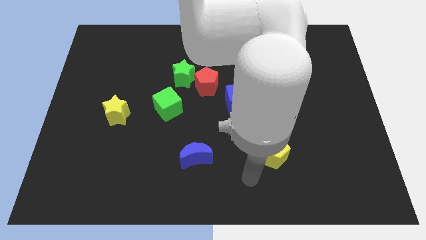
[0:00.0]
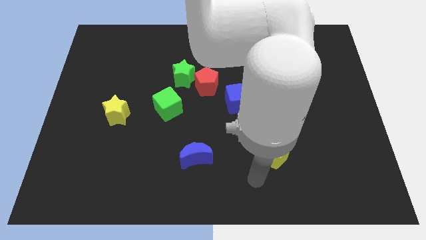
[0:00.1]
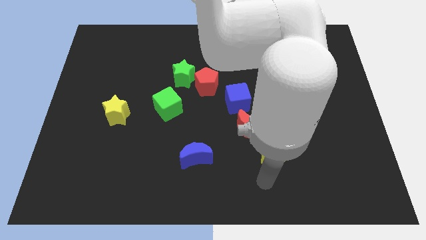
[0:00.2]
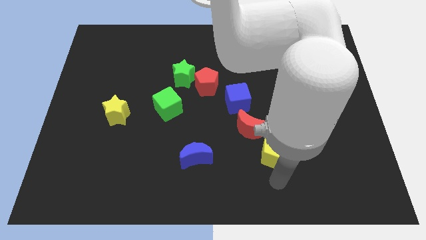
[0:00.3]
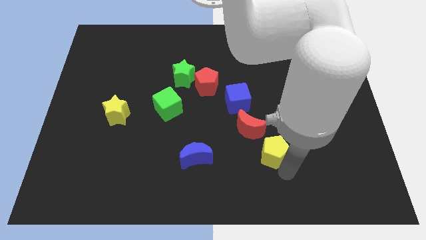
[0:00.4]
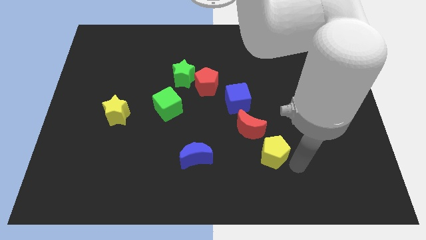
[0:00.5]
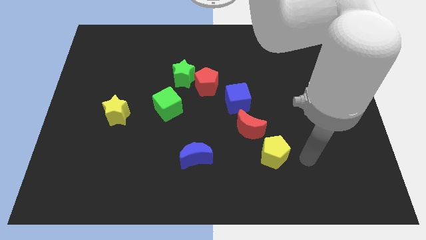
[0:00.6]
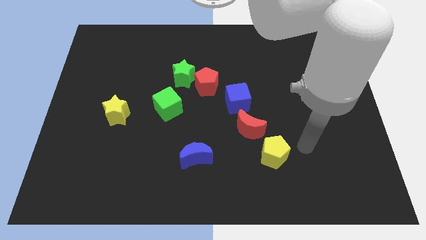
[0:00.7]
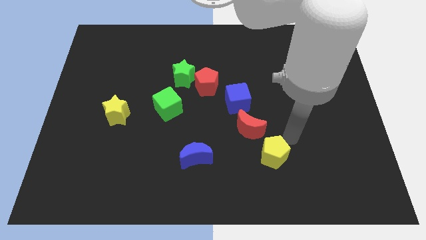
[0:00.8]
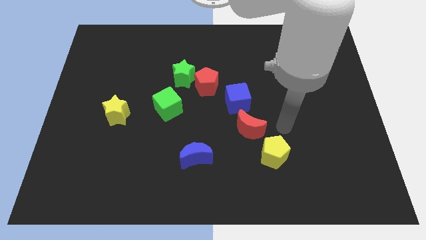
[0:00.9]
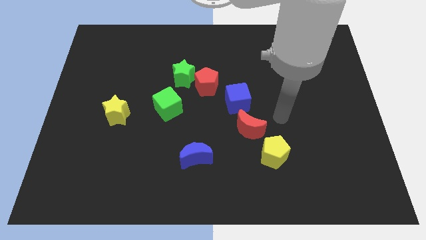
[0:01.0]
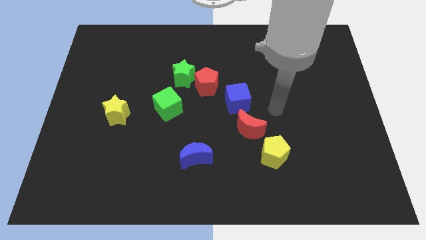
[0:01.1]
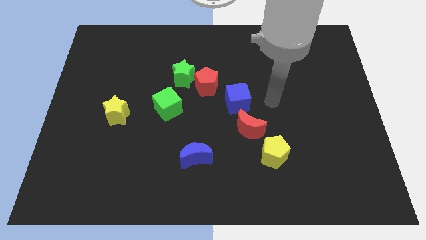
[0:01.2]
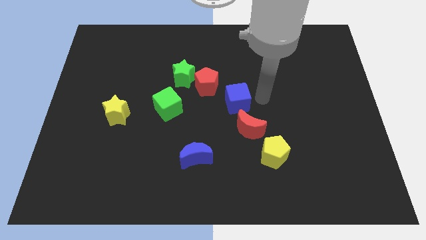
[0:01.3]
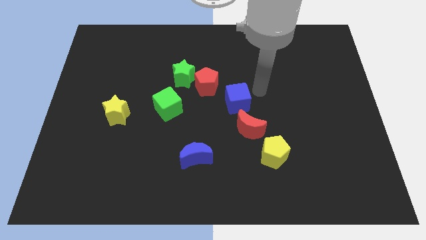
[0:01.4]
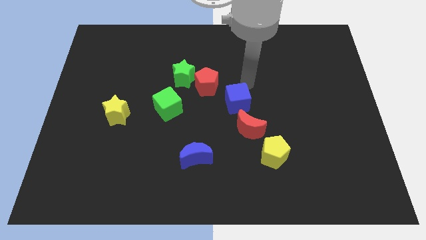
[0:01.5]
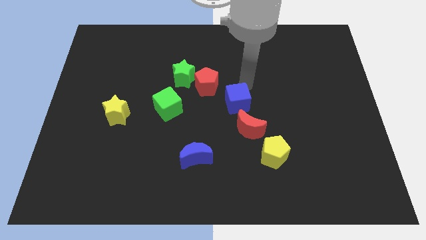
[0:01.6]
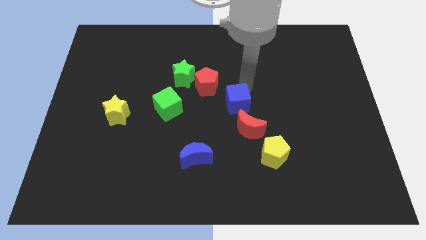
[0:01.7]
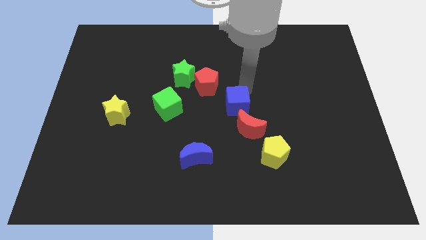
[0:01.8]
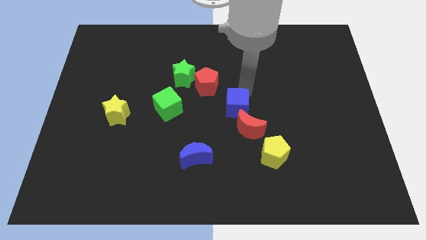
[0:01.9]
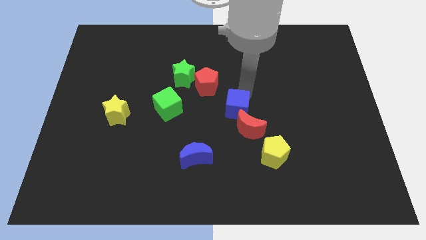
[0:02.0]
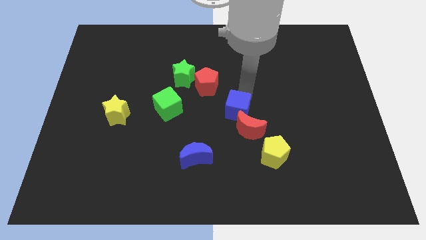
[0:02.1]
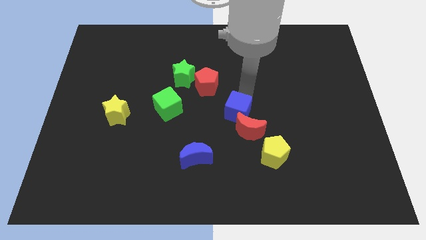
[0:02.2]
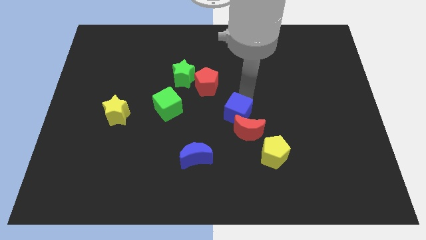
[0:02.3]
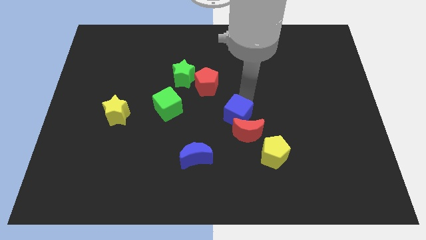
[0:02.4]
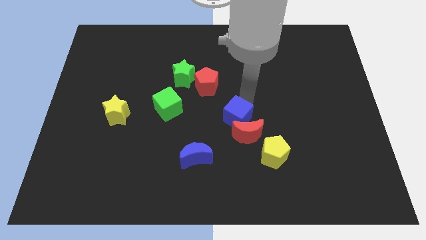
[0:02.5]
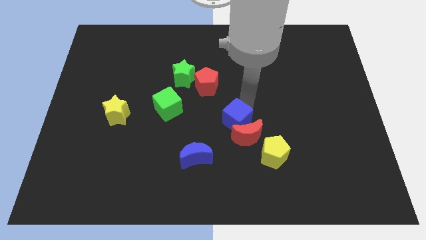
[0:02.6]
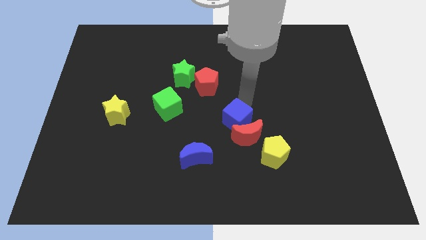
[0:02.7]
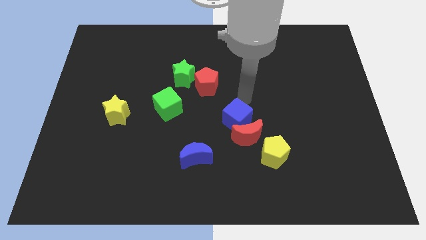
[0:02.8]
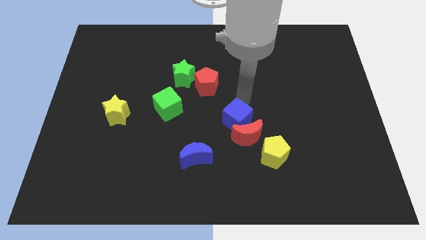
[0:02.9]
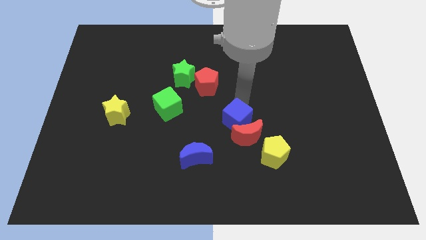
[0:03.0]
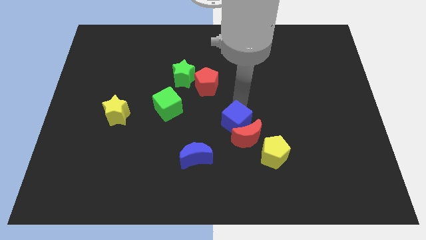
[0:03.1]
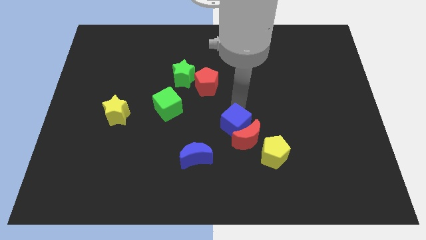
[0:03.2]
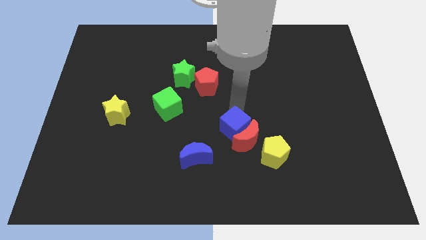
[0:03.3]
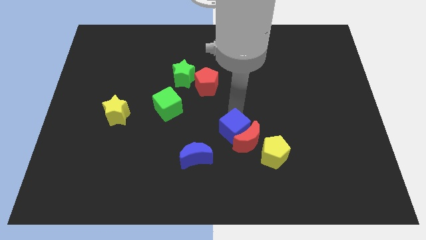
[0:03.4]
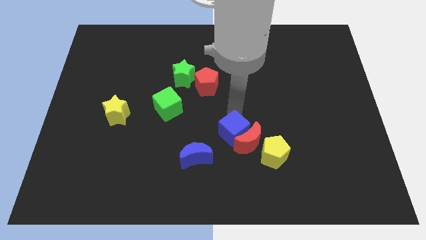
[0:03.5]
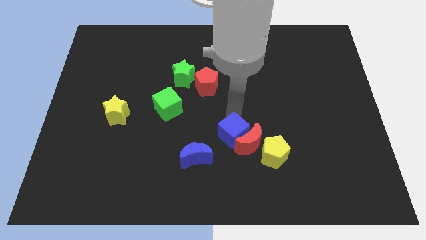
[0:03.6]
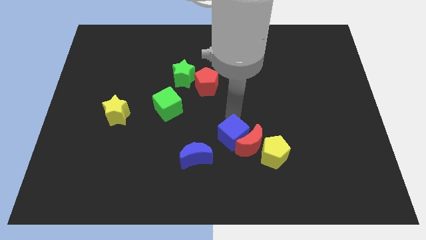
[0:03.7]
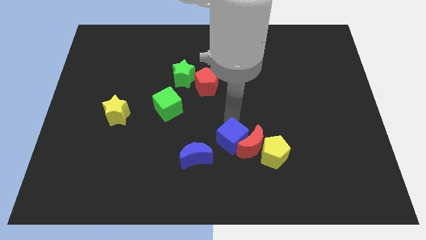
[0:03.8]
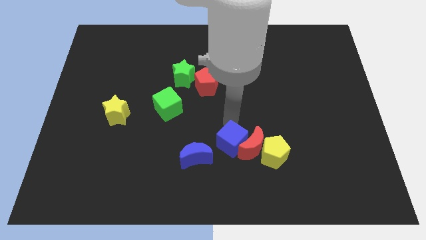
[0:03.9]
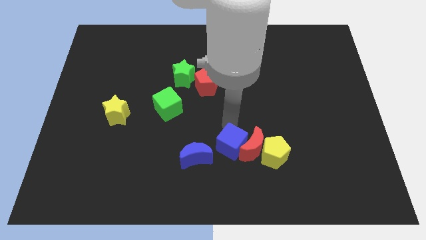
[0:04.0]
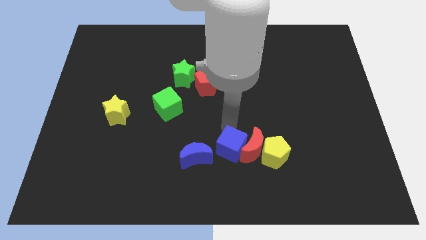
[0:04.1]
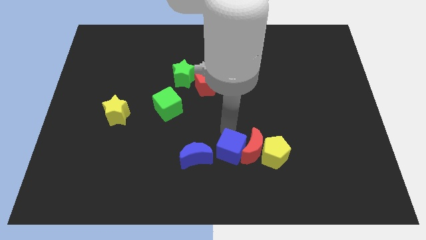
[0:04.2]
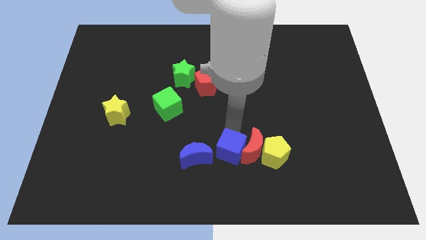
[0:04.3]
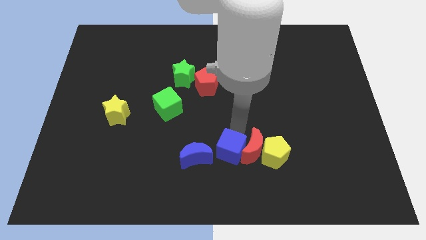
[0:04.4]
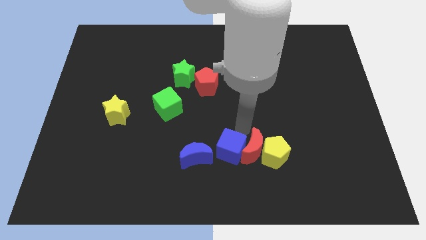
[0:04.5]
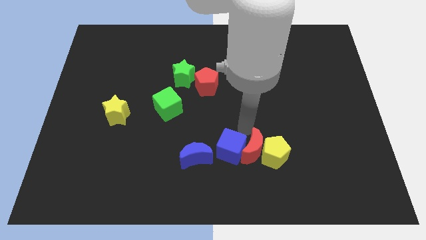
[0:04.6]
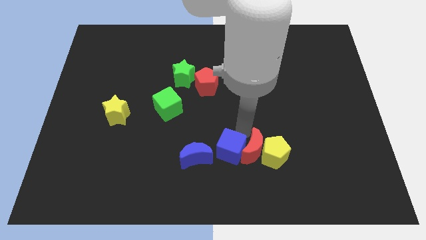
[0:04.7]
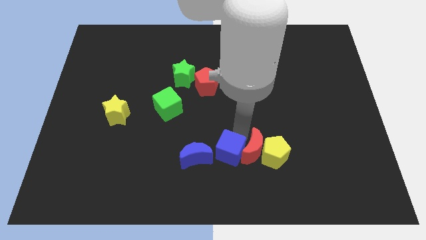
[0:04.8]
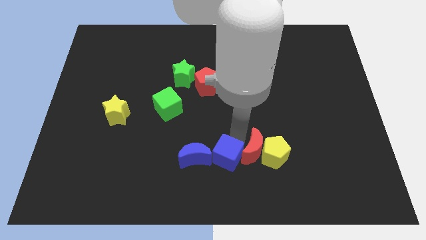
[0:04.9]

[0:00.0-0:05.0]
push the blue cube to the bottom side

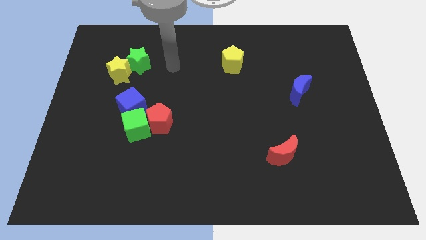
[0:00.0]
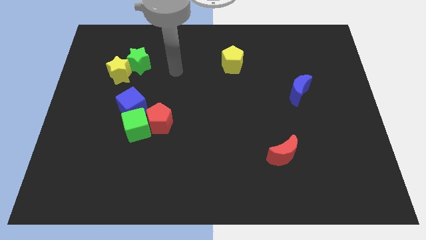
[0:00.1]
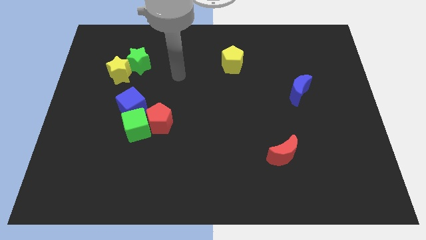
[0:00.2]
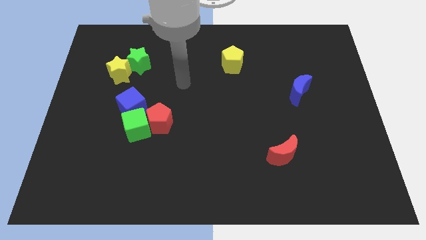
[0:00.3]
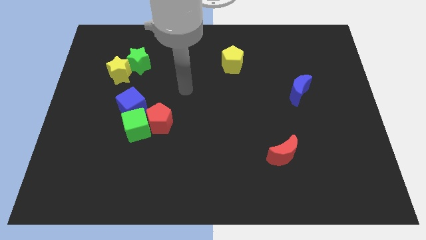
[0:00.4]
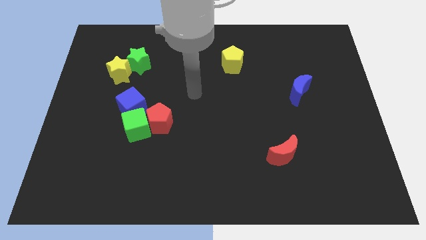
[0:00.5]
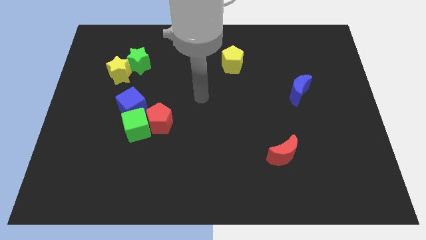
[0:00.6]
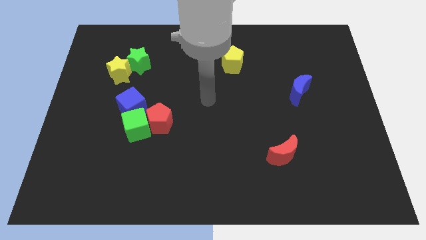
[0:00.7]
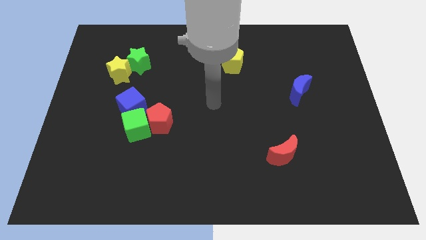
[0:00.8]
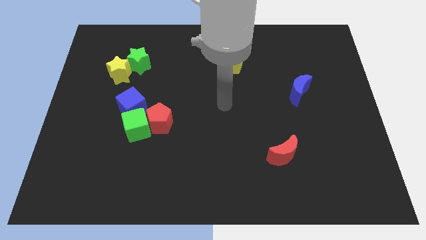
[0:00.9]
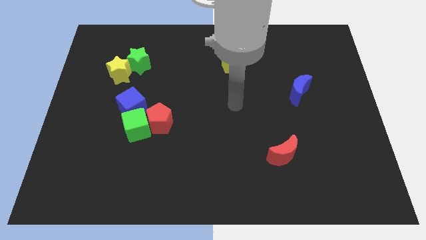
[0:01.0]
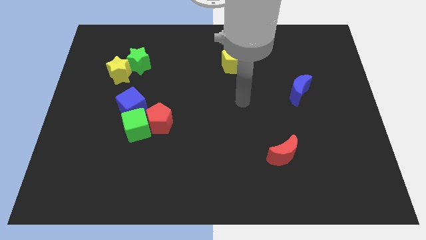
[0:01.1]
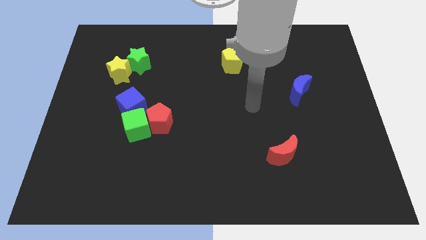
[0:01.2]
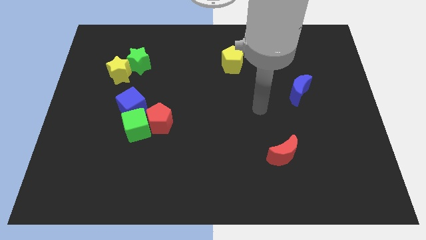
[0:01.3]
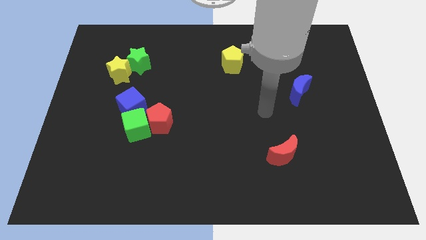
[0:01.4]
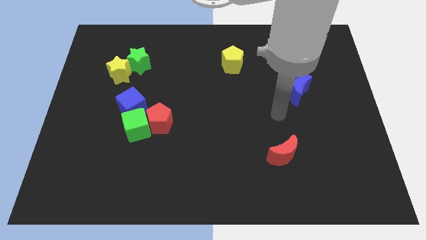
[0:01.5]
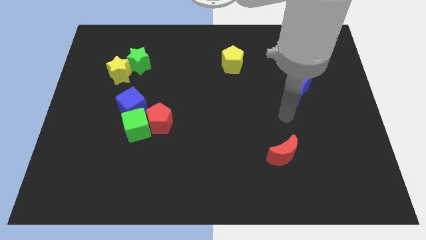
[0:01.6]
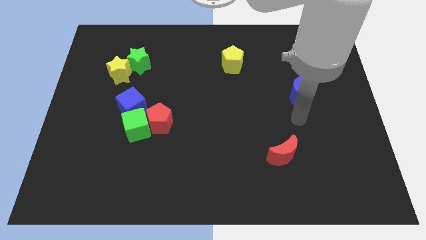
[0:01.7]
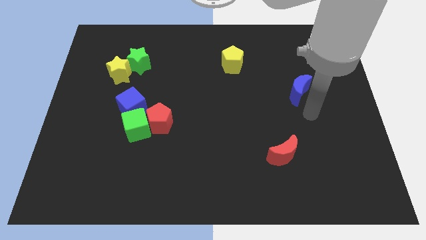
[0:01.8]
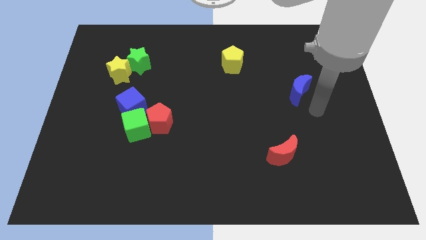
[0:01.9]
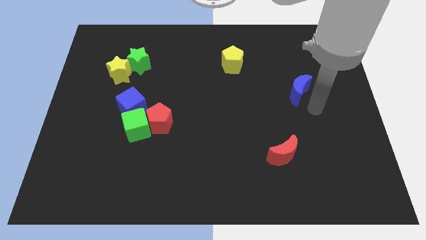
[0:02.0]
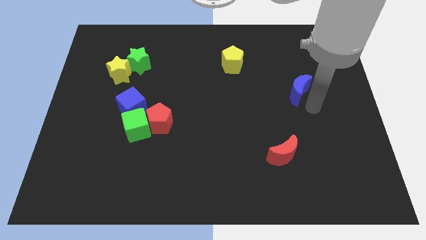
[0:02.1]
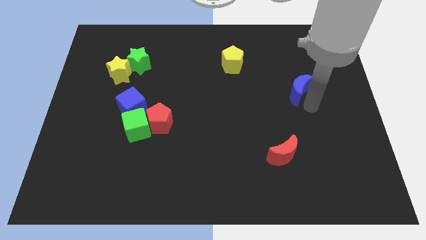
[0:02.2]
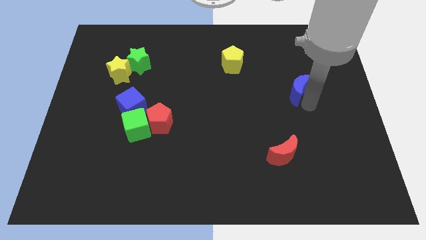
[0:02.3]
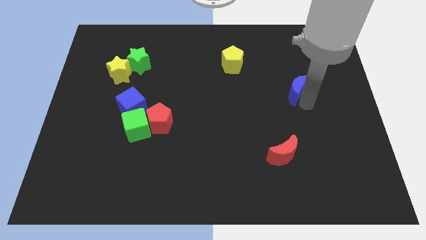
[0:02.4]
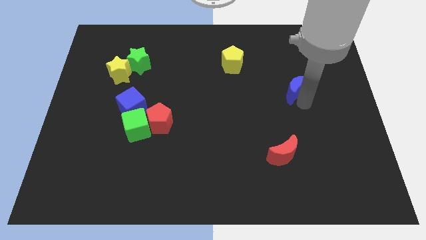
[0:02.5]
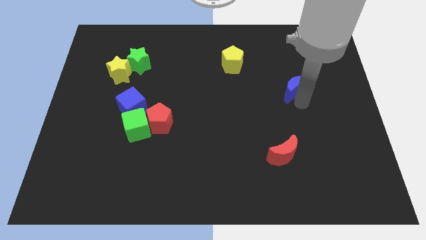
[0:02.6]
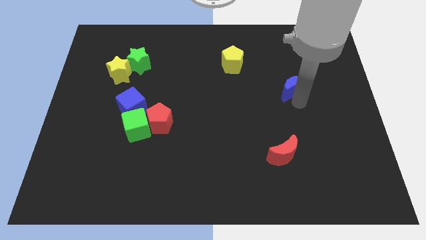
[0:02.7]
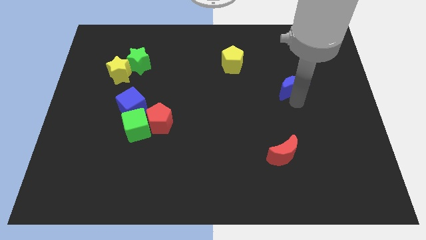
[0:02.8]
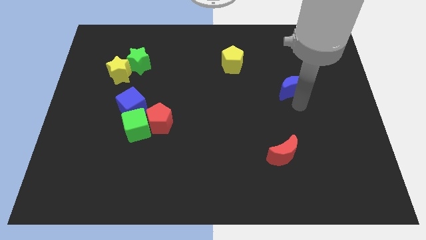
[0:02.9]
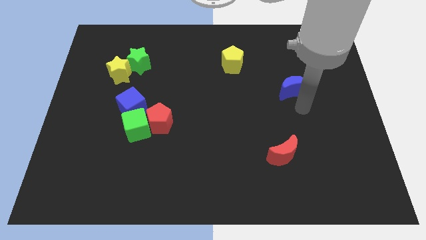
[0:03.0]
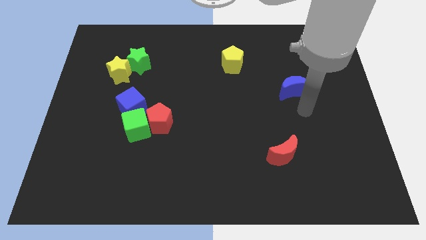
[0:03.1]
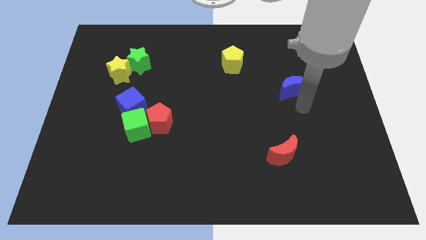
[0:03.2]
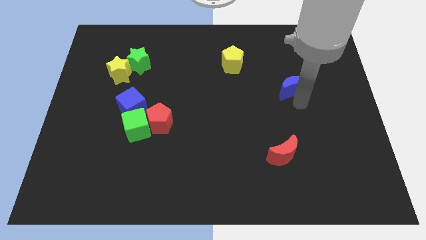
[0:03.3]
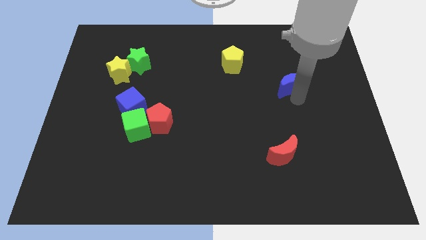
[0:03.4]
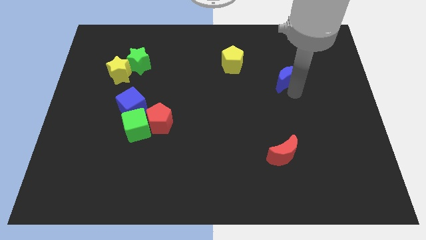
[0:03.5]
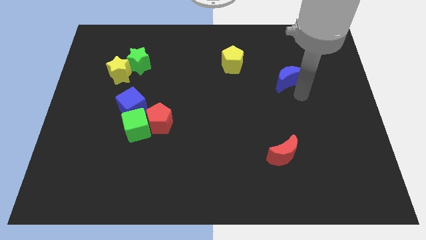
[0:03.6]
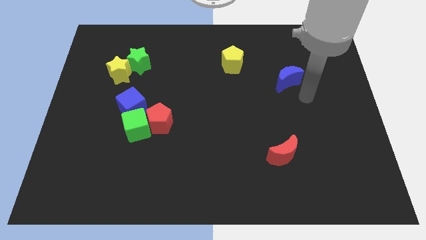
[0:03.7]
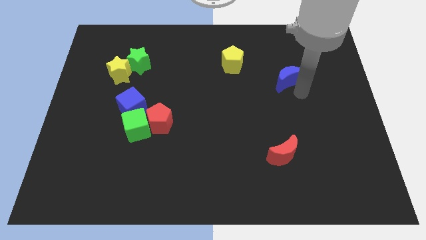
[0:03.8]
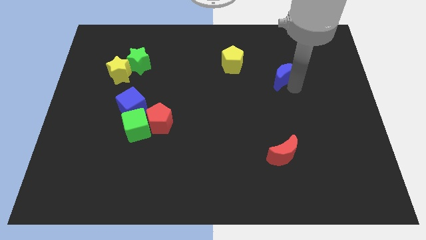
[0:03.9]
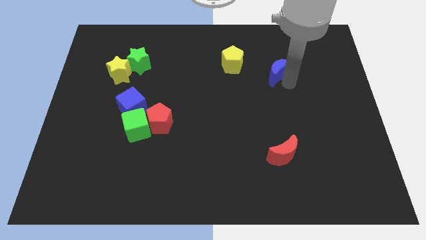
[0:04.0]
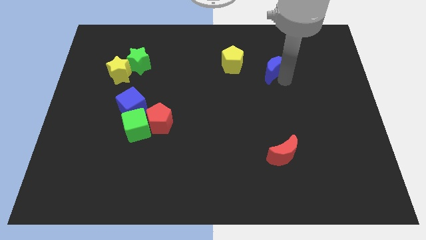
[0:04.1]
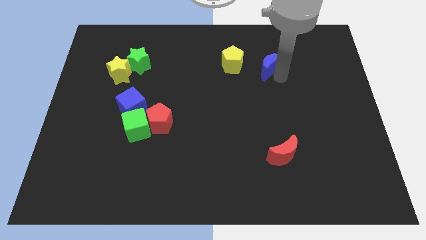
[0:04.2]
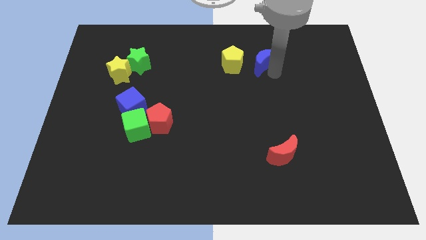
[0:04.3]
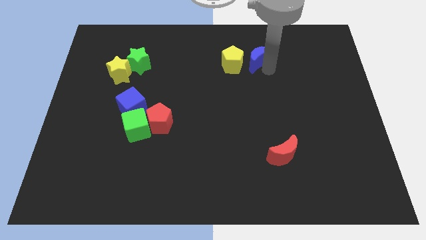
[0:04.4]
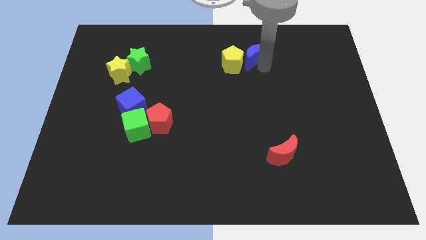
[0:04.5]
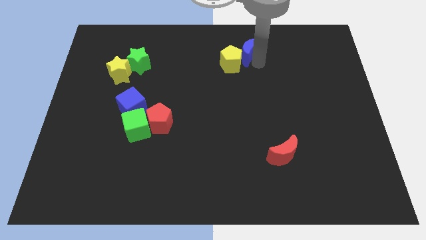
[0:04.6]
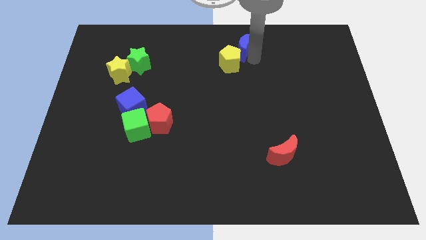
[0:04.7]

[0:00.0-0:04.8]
push the blue moon to the top
